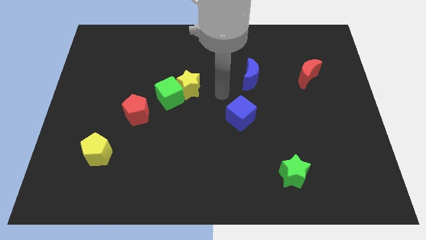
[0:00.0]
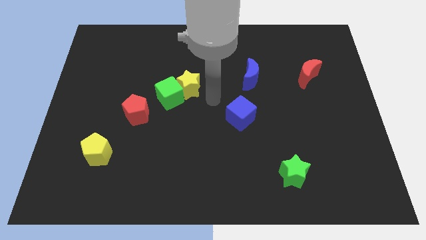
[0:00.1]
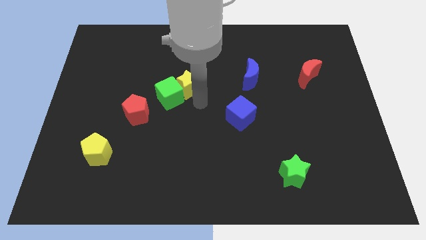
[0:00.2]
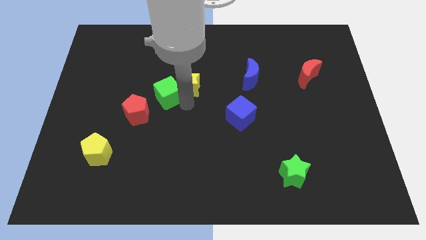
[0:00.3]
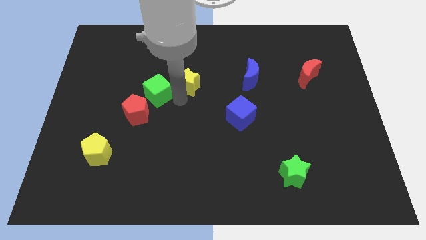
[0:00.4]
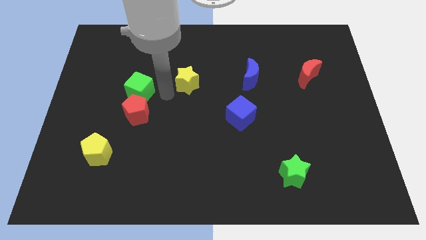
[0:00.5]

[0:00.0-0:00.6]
separate the yellow star from the green cube

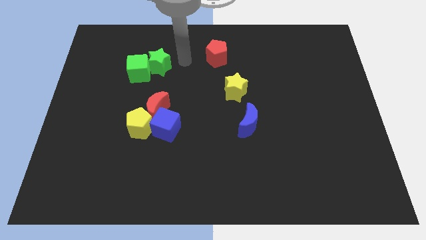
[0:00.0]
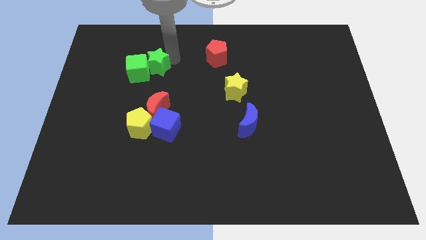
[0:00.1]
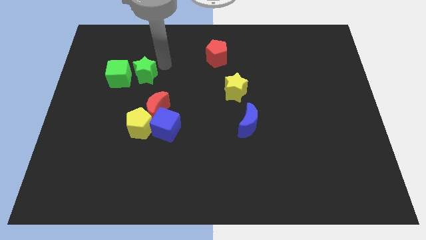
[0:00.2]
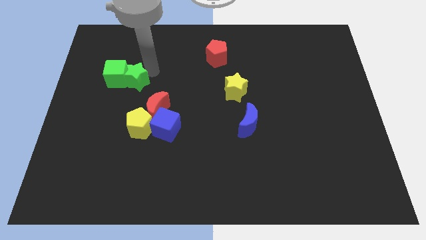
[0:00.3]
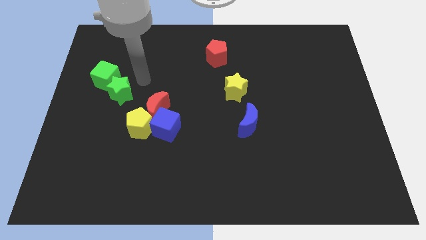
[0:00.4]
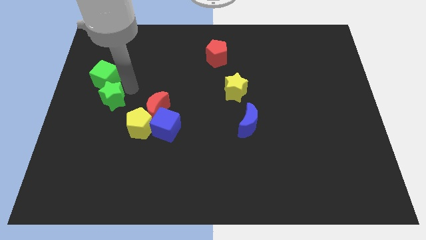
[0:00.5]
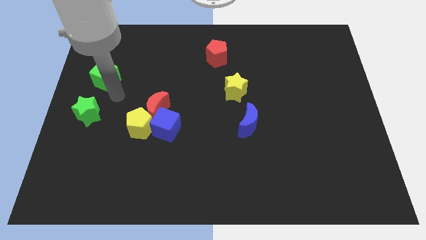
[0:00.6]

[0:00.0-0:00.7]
separate the green cube from the green star

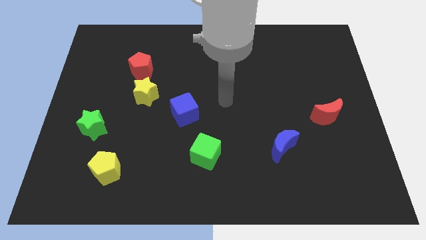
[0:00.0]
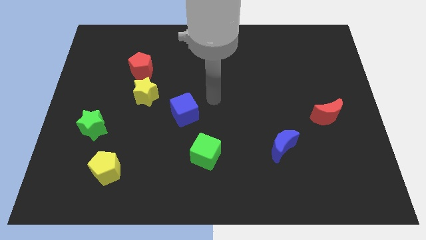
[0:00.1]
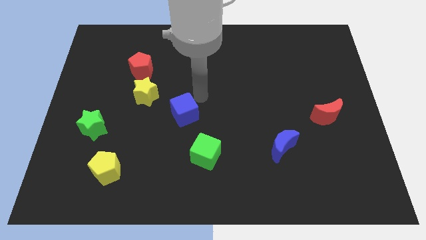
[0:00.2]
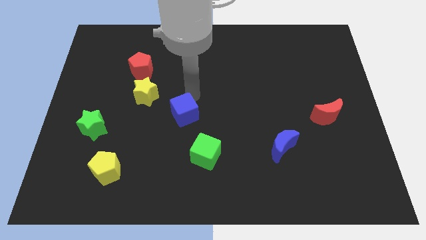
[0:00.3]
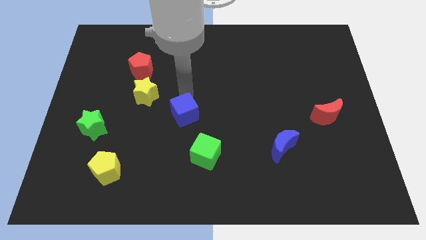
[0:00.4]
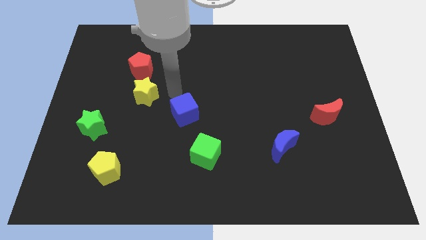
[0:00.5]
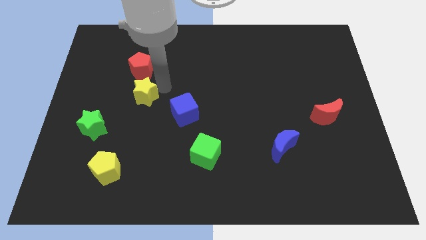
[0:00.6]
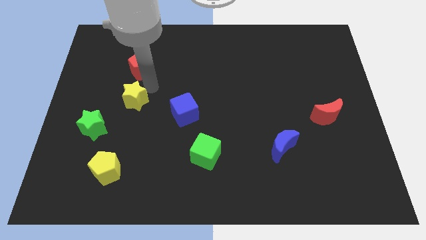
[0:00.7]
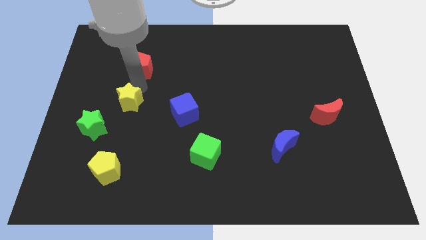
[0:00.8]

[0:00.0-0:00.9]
separate the red pentagon from the yellow star

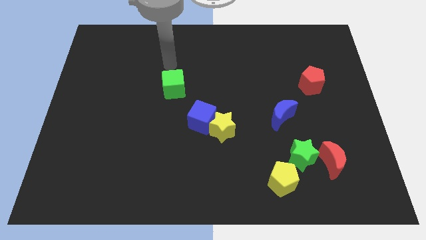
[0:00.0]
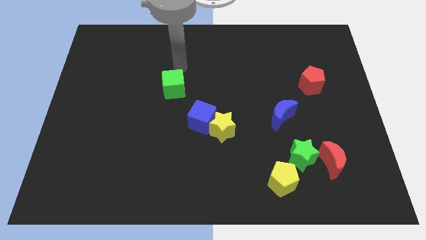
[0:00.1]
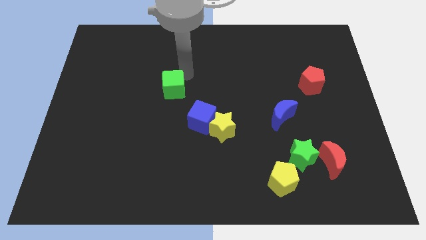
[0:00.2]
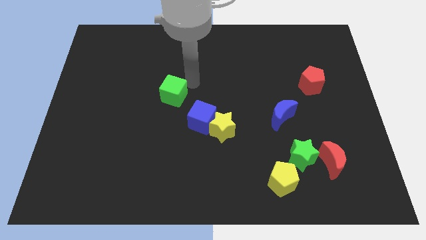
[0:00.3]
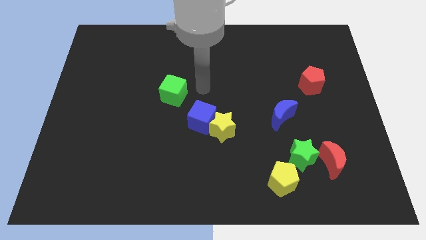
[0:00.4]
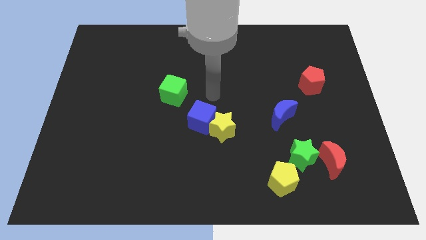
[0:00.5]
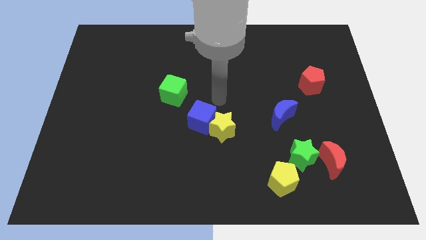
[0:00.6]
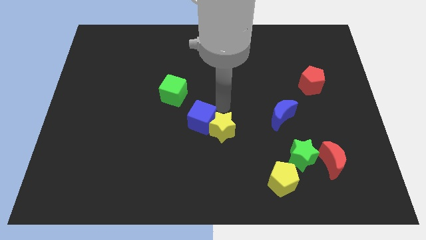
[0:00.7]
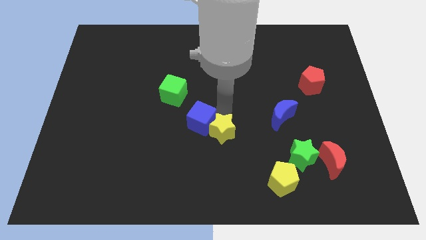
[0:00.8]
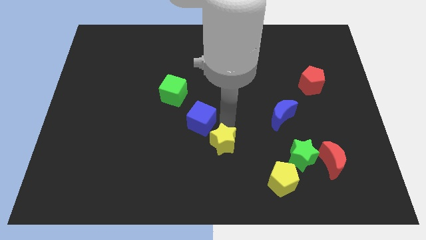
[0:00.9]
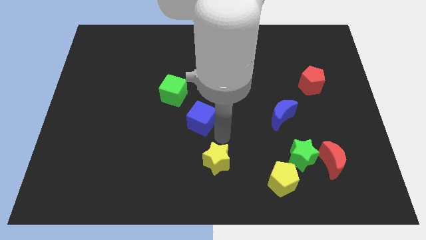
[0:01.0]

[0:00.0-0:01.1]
pull the blue cube apart from the yellow star

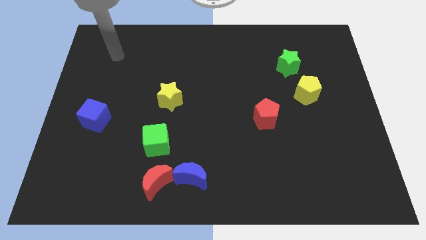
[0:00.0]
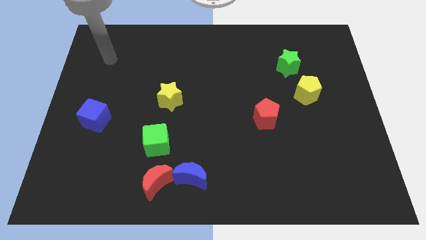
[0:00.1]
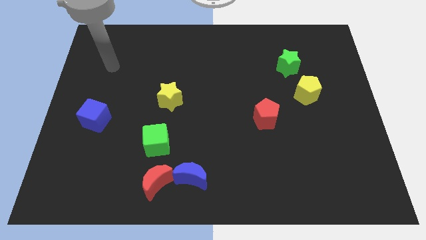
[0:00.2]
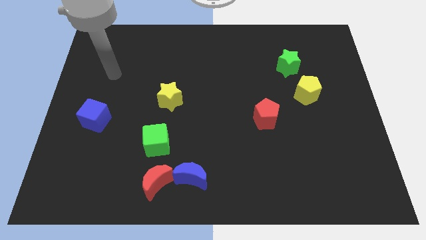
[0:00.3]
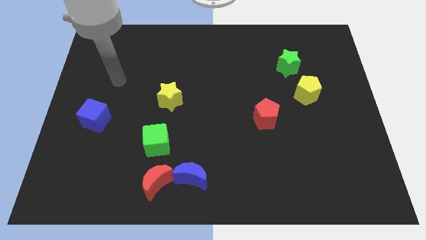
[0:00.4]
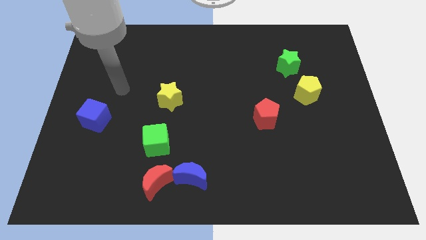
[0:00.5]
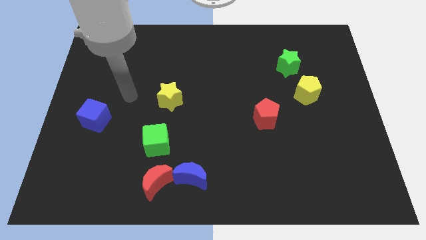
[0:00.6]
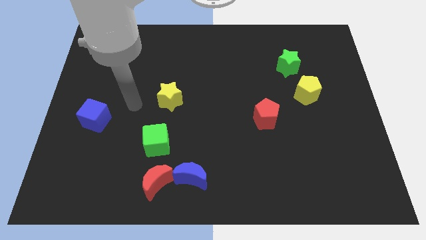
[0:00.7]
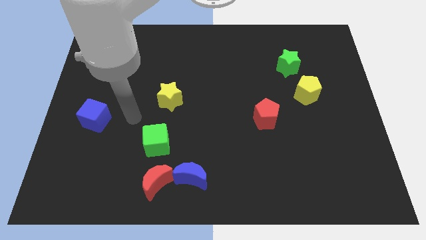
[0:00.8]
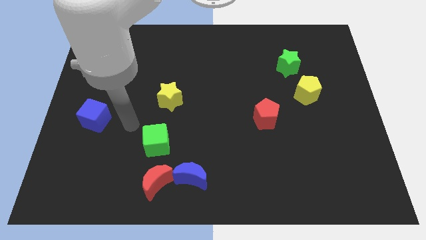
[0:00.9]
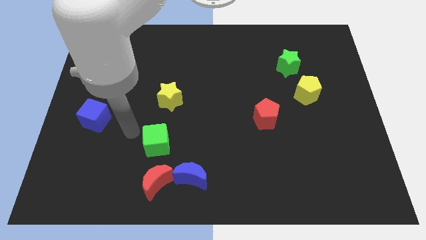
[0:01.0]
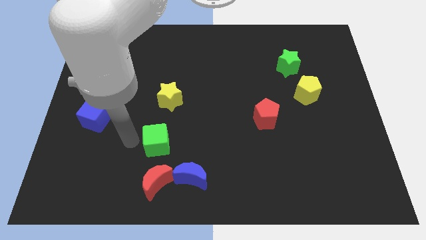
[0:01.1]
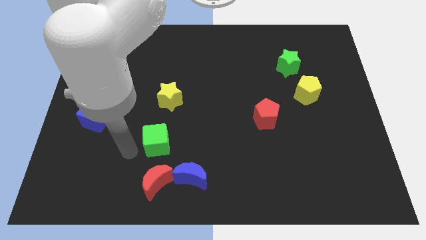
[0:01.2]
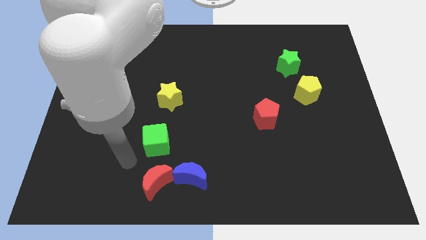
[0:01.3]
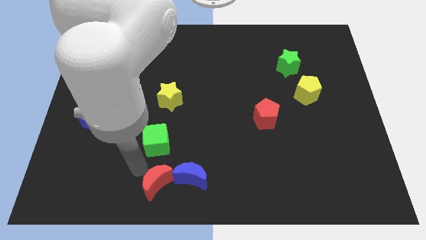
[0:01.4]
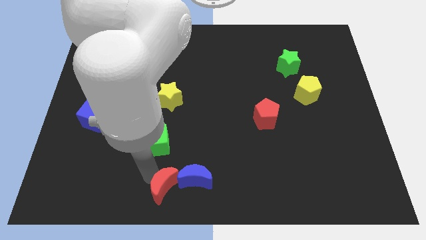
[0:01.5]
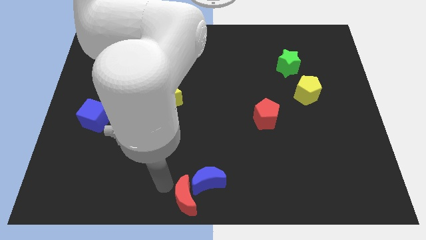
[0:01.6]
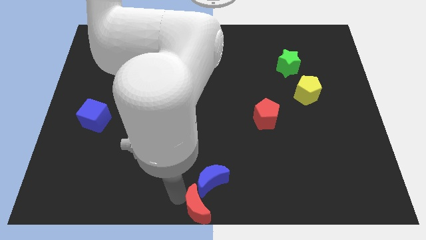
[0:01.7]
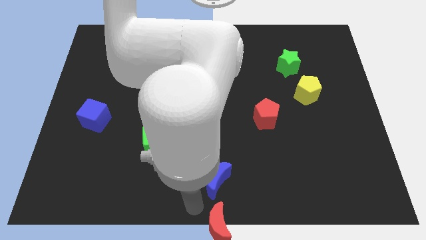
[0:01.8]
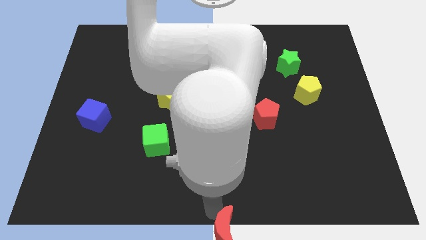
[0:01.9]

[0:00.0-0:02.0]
move the blue moon away from the red moon

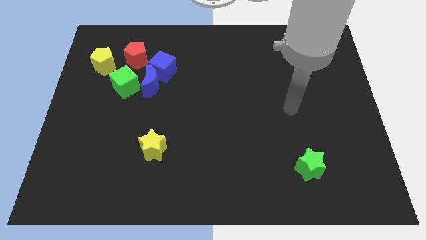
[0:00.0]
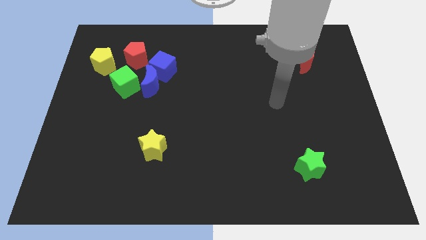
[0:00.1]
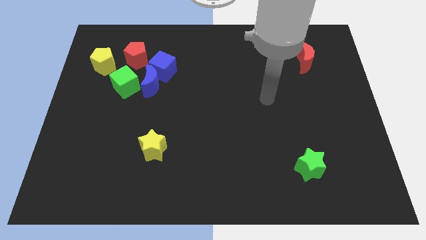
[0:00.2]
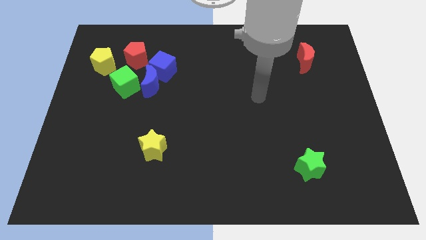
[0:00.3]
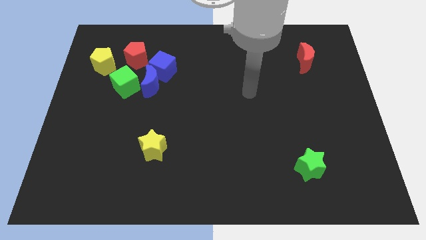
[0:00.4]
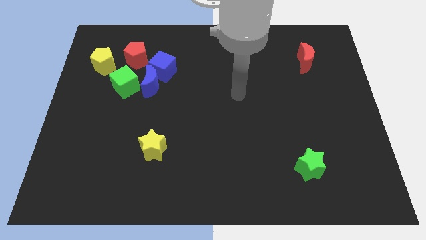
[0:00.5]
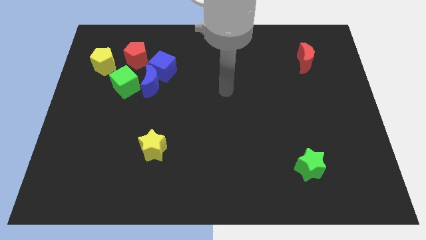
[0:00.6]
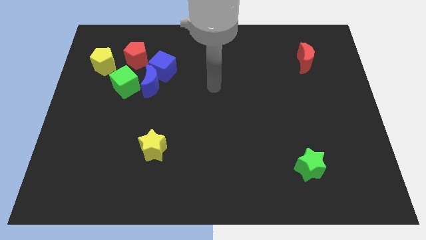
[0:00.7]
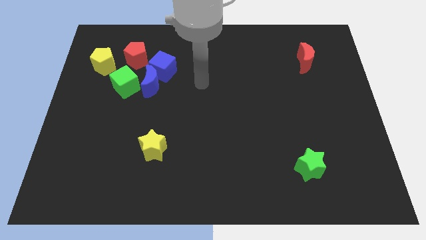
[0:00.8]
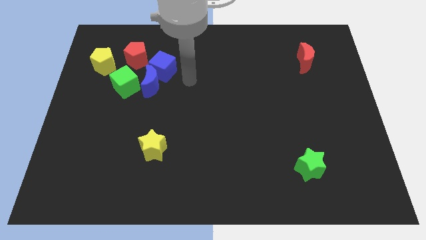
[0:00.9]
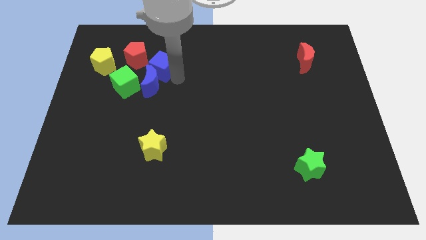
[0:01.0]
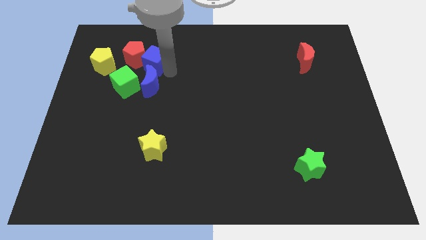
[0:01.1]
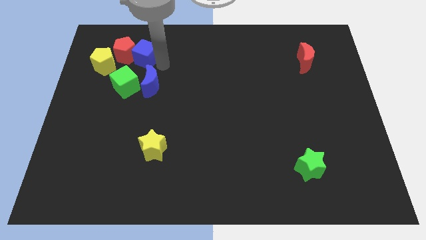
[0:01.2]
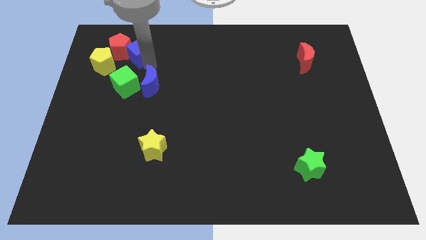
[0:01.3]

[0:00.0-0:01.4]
separate the blue moon from the blue cube, green cube, and red pentagon

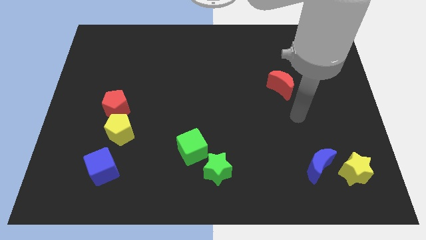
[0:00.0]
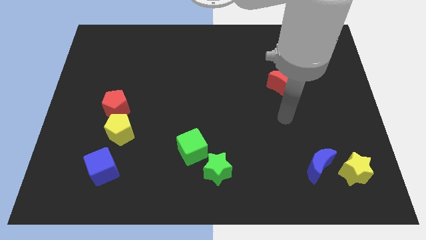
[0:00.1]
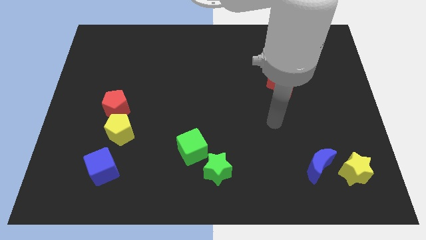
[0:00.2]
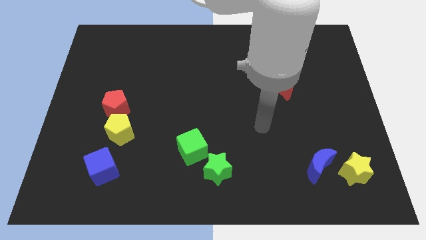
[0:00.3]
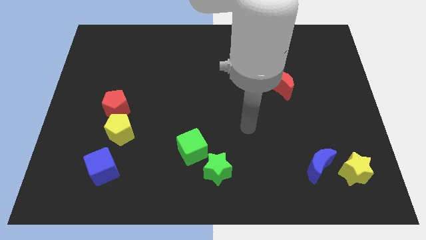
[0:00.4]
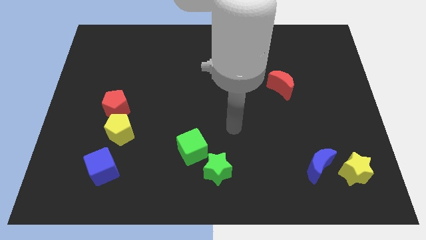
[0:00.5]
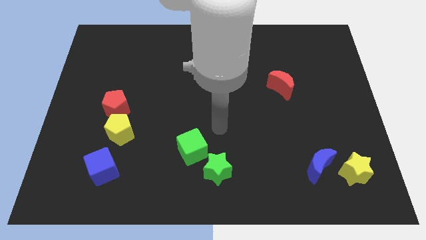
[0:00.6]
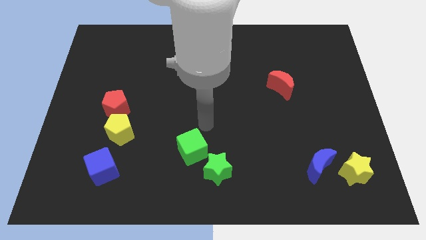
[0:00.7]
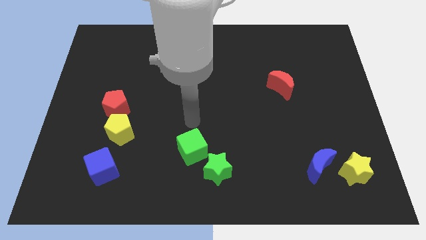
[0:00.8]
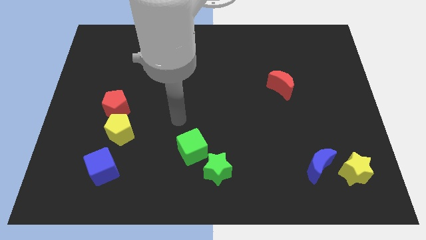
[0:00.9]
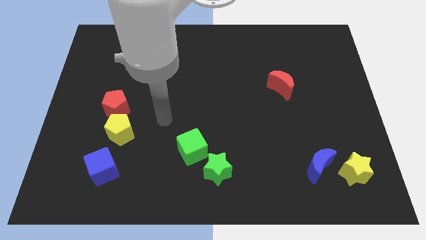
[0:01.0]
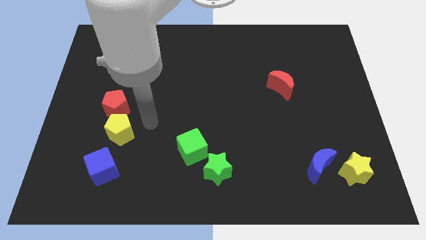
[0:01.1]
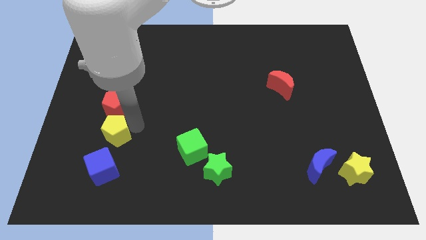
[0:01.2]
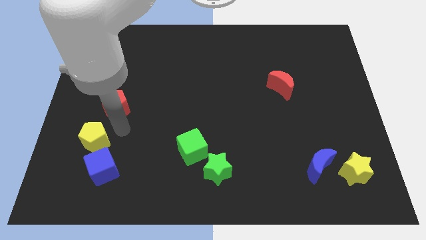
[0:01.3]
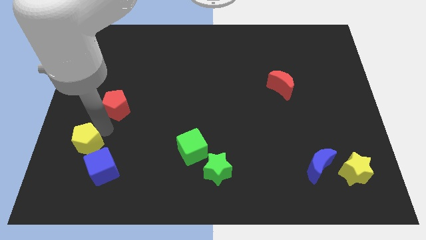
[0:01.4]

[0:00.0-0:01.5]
pull the red pentagon apart from the yellow pentagon

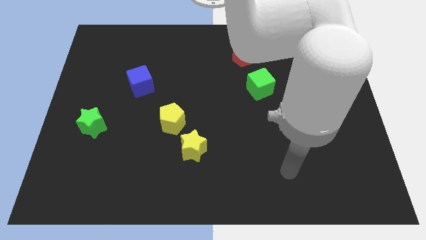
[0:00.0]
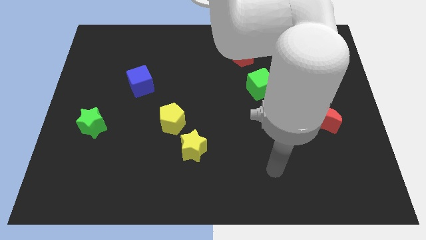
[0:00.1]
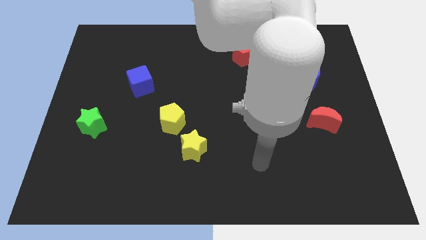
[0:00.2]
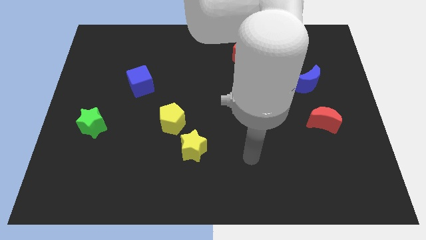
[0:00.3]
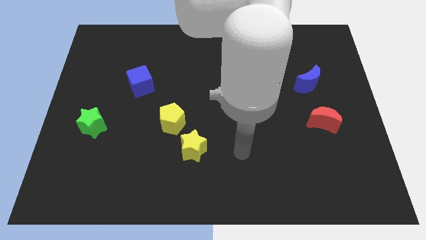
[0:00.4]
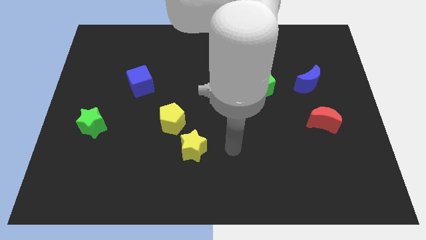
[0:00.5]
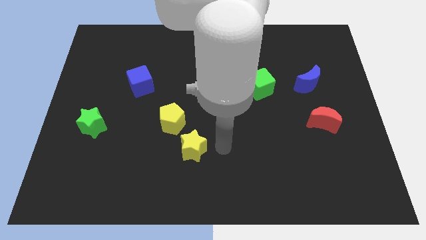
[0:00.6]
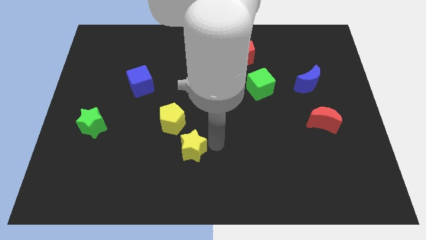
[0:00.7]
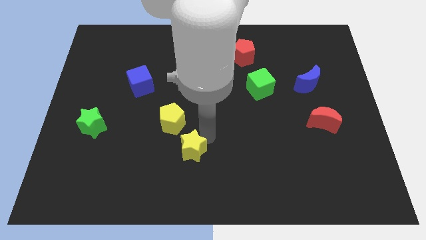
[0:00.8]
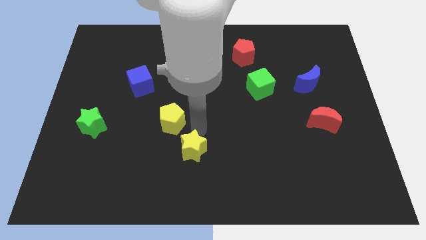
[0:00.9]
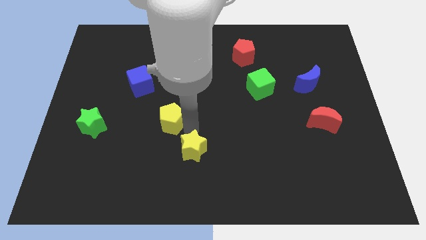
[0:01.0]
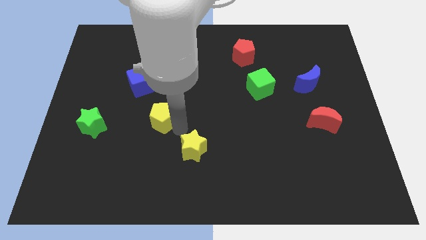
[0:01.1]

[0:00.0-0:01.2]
move the yellow star away from the yellow pentagon
